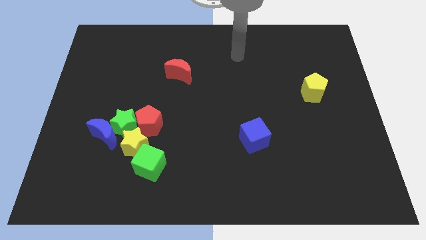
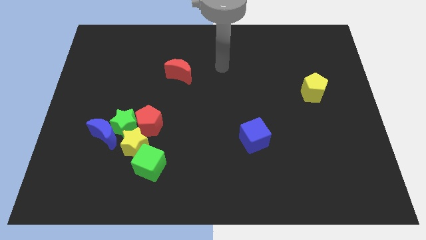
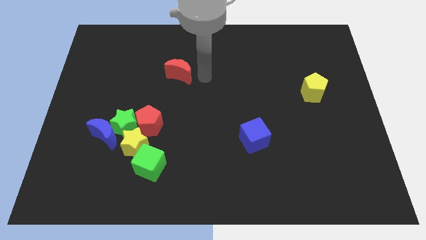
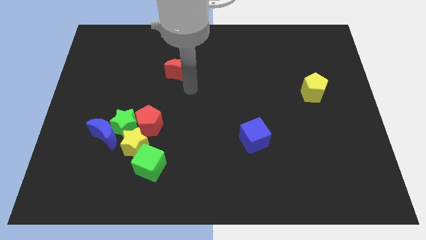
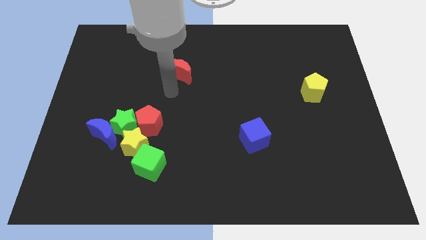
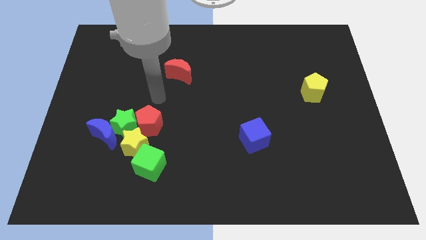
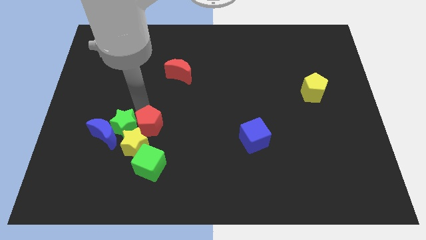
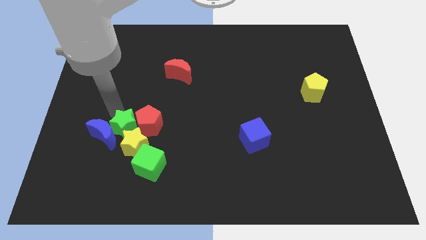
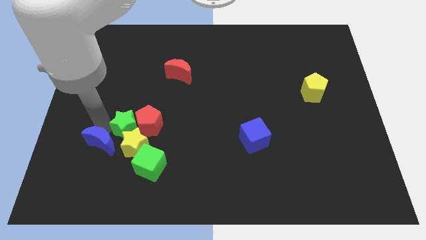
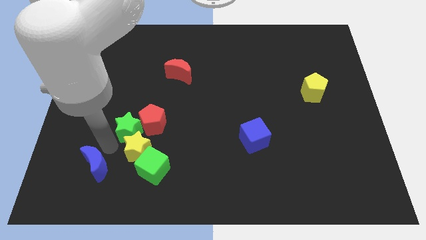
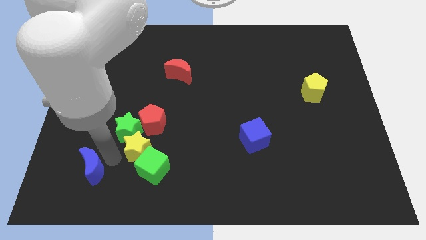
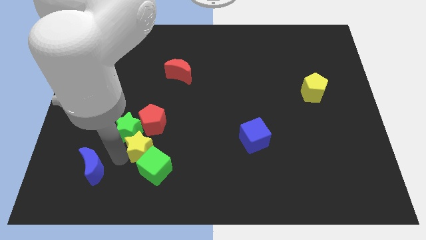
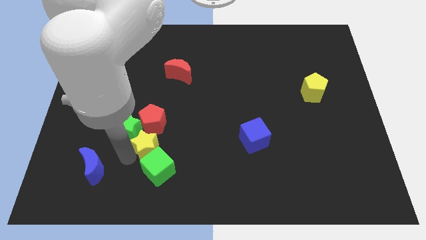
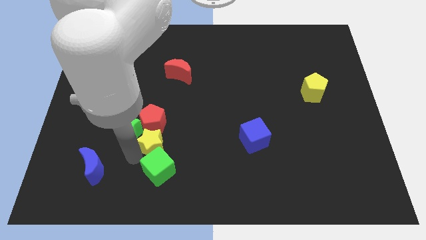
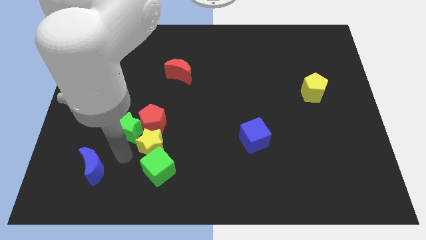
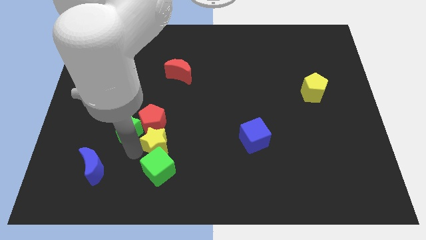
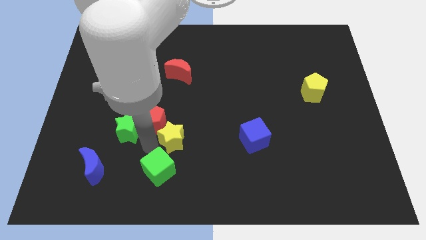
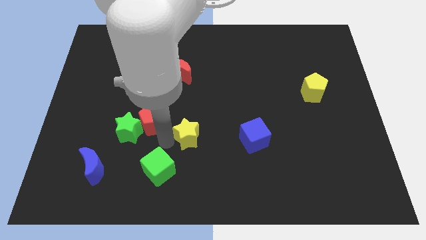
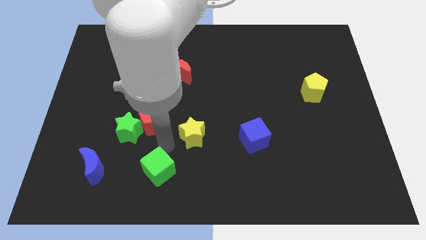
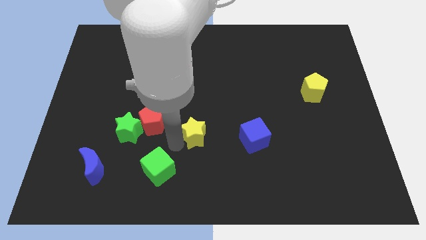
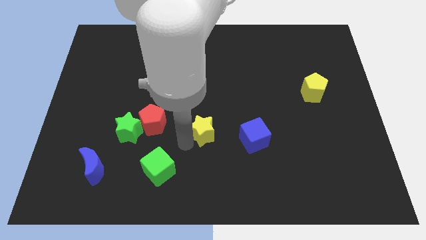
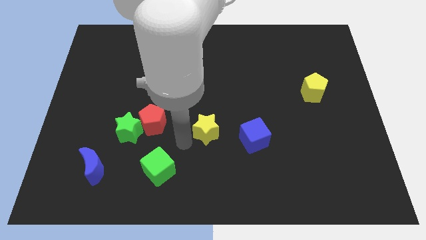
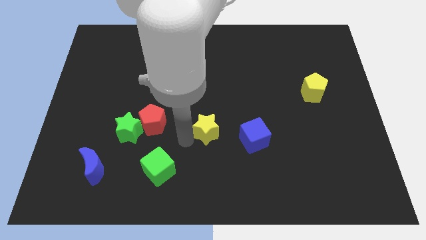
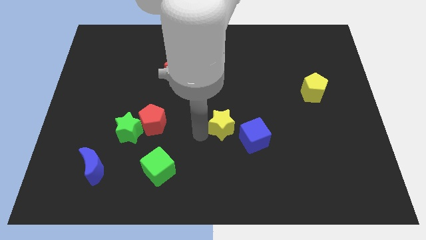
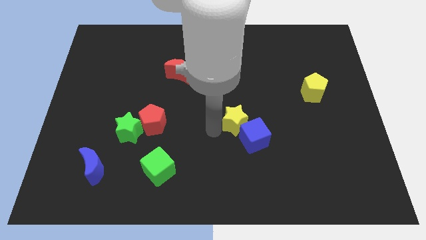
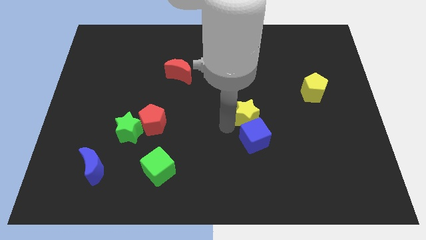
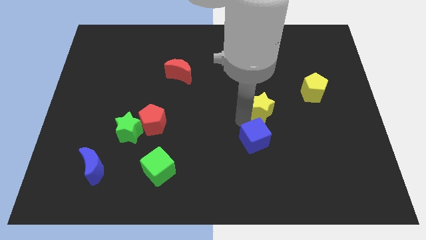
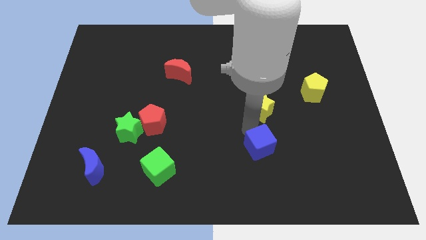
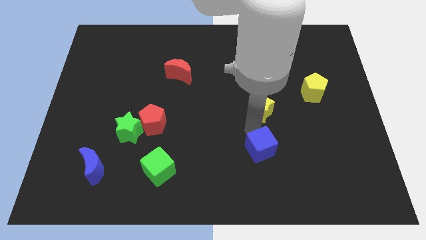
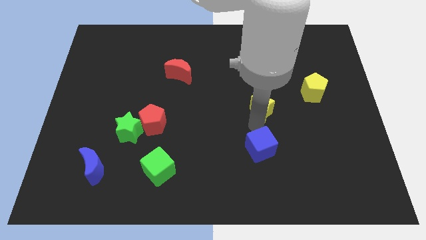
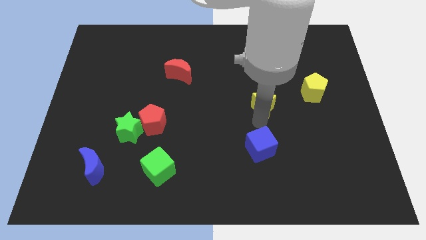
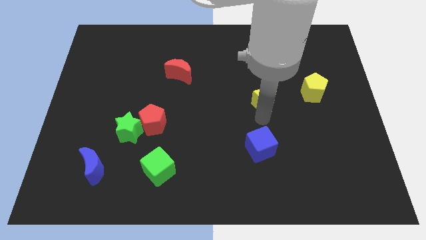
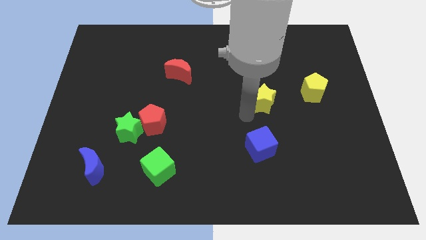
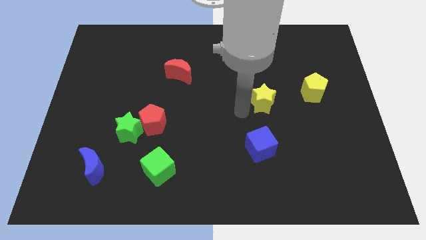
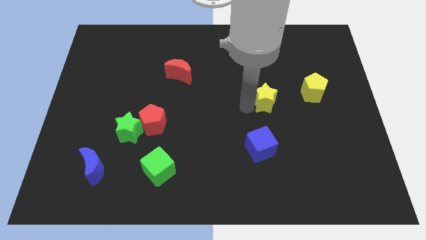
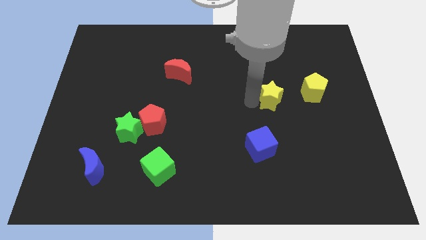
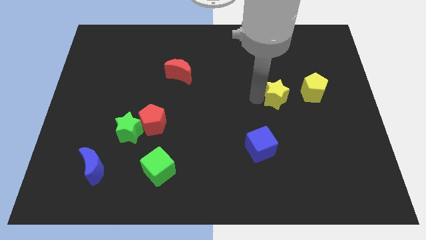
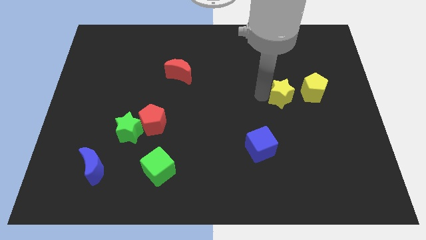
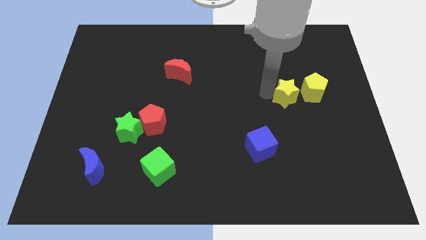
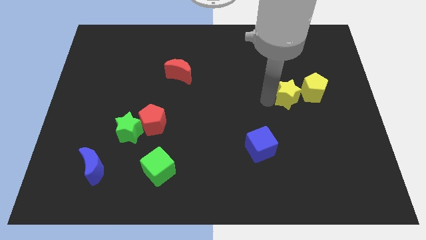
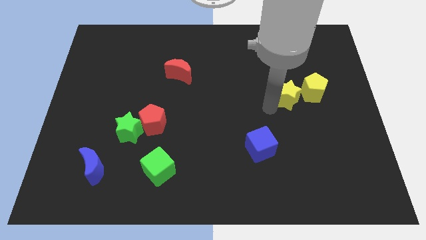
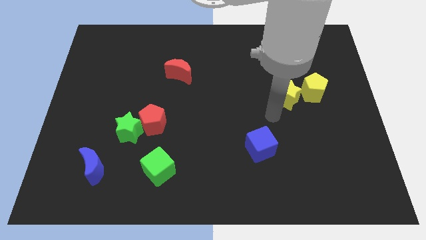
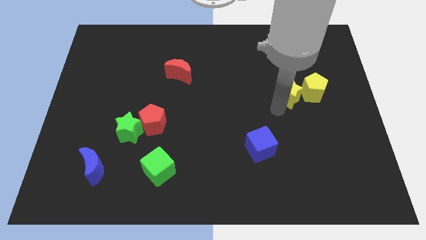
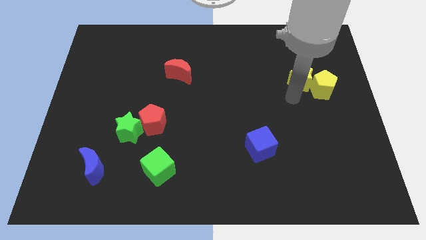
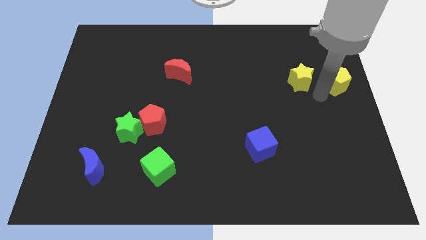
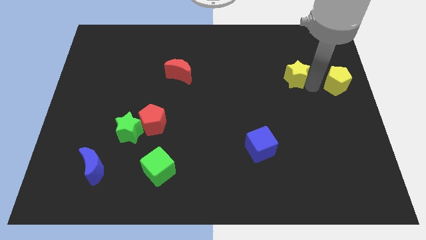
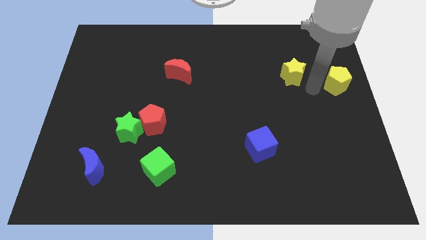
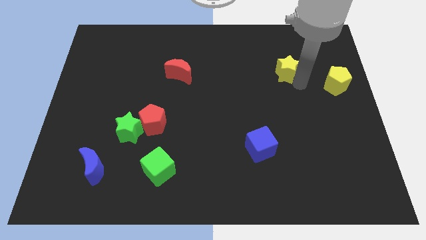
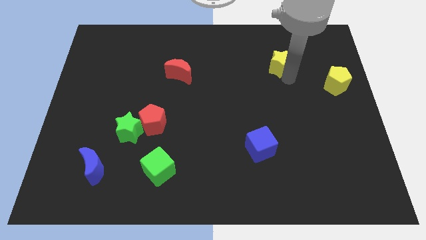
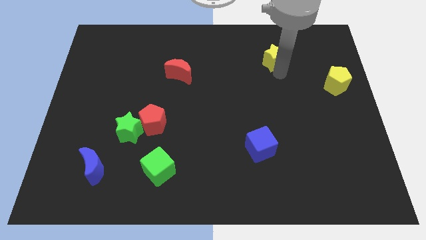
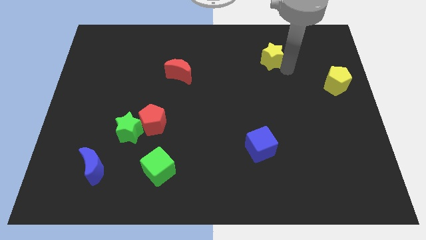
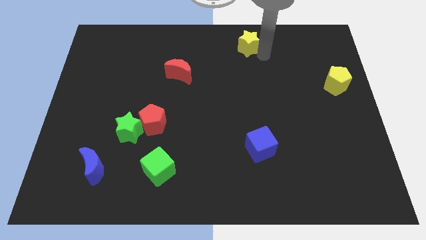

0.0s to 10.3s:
put the yellow star to the towards your base

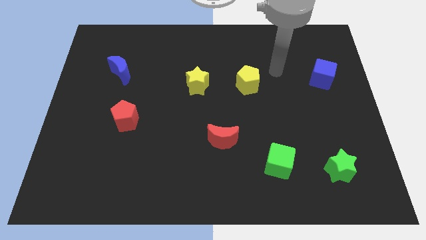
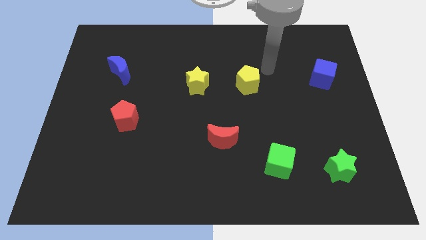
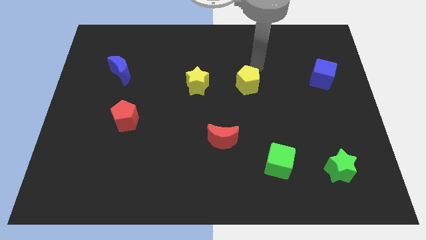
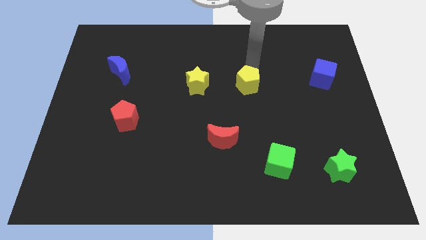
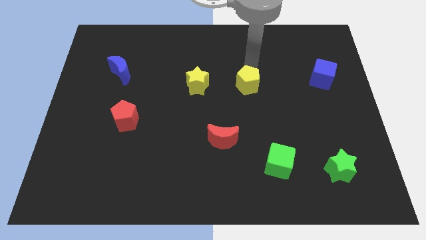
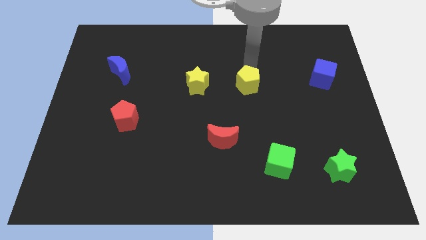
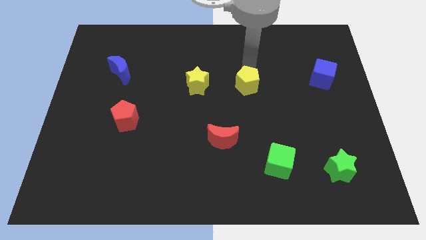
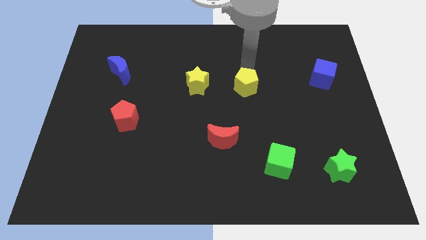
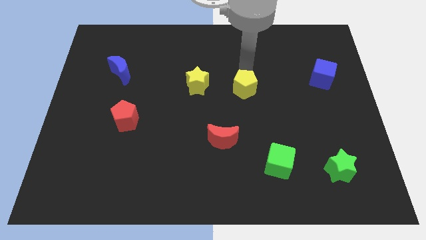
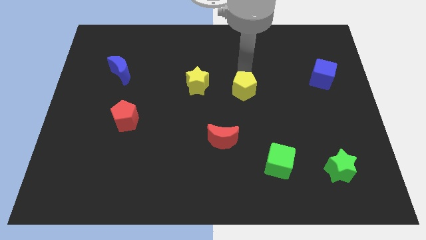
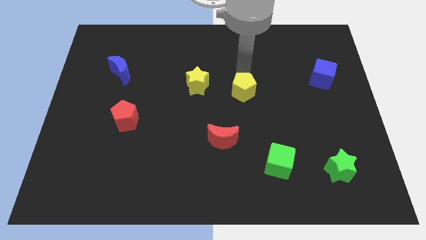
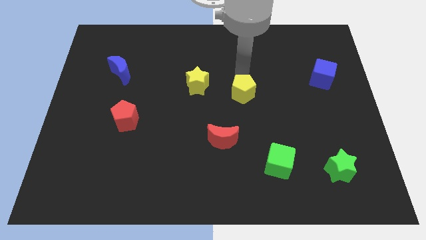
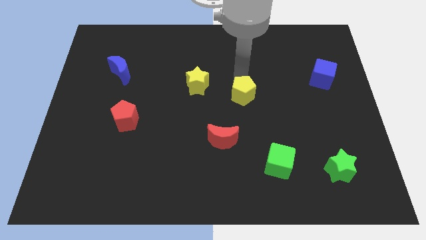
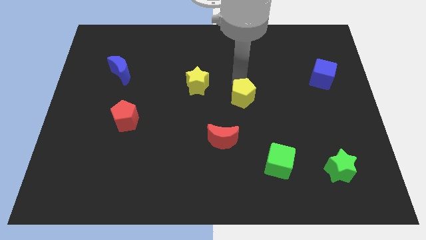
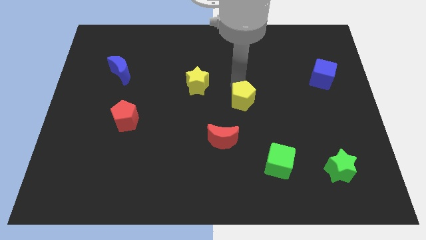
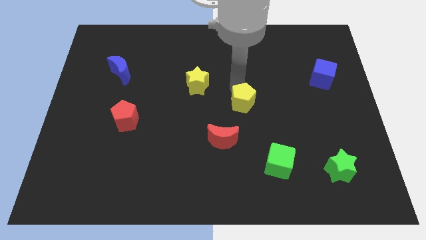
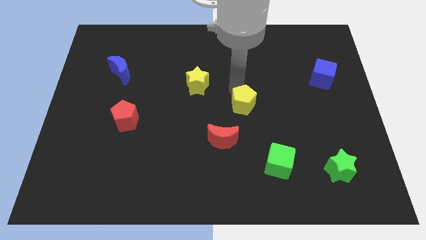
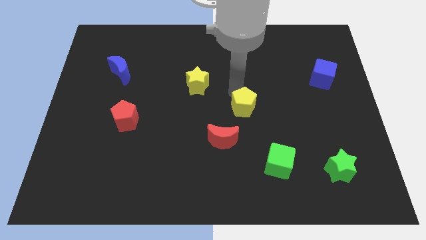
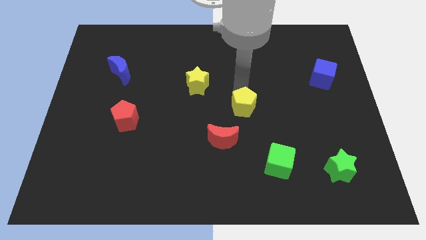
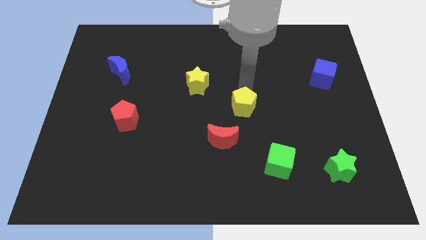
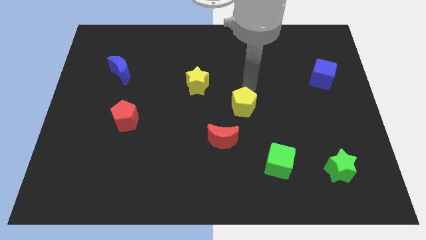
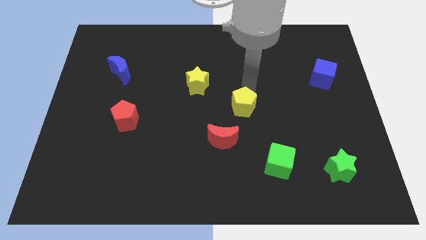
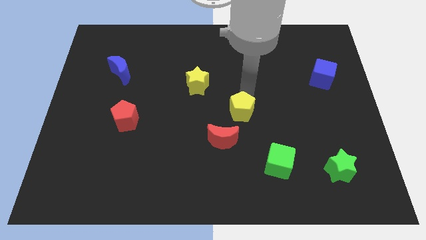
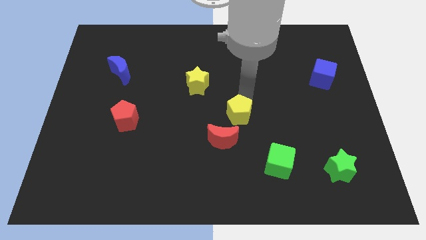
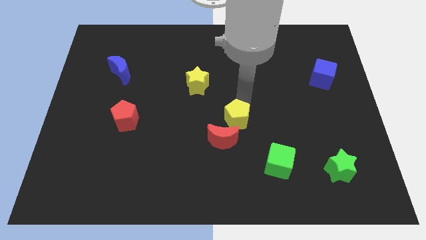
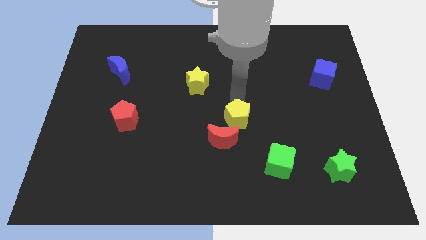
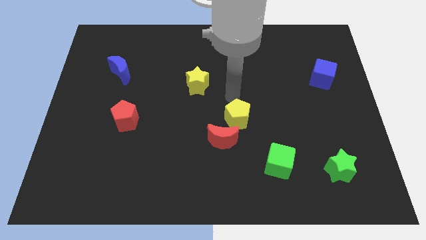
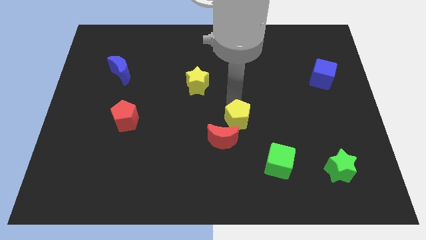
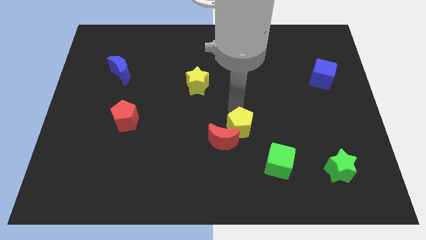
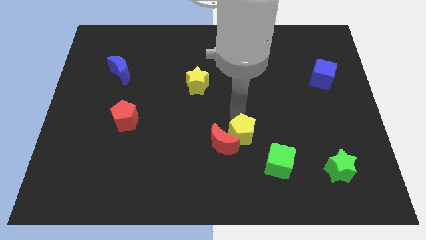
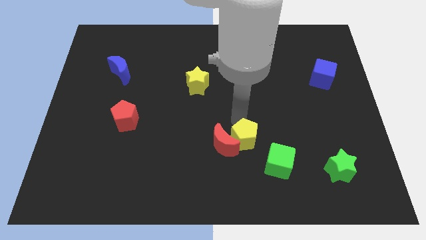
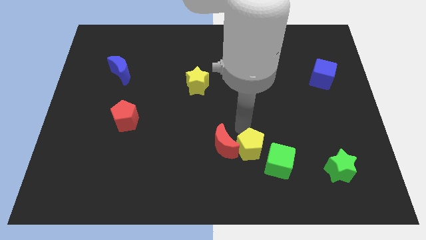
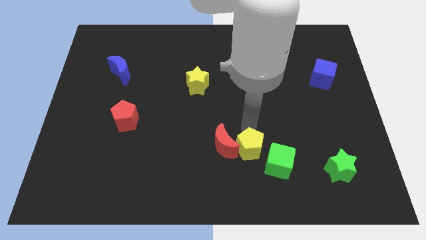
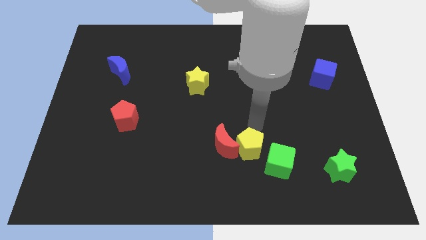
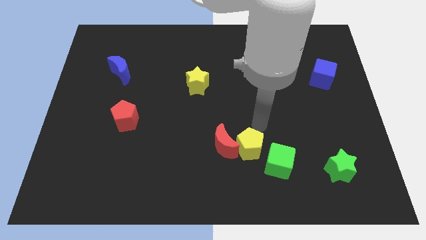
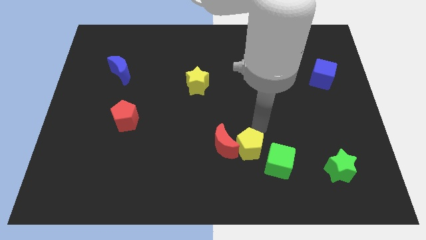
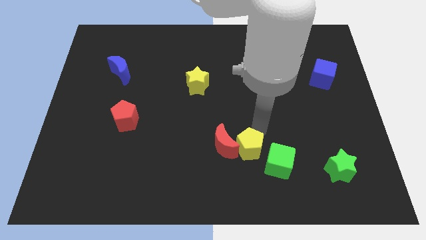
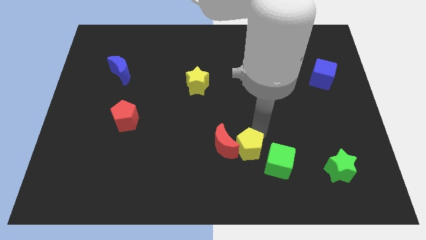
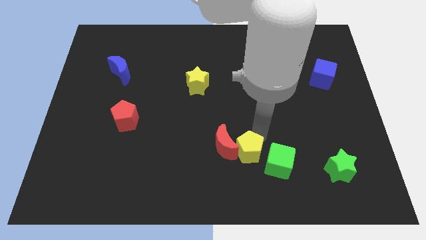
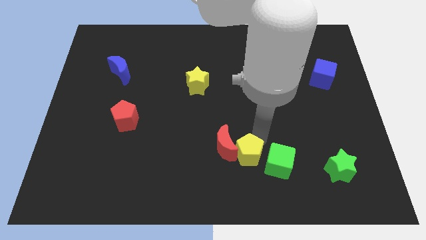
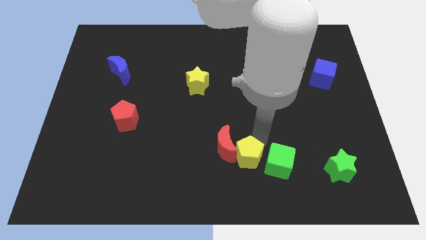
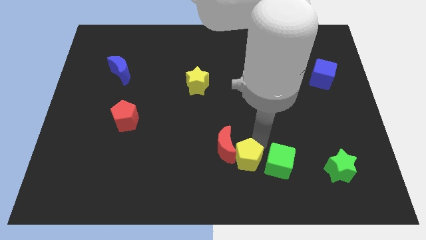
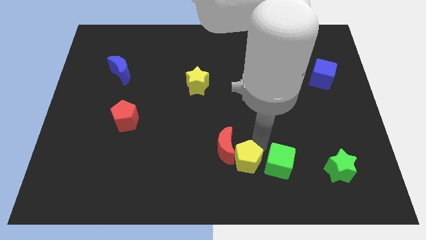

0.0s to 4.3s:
push the yellow pentagon to the bottom
